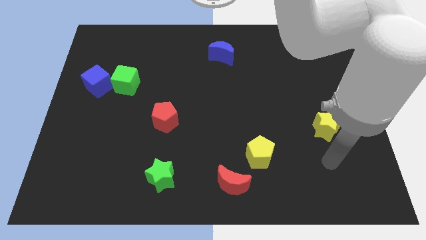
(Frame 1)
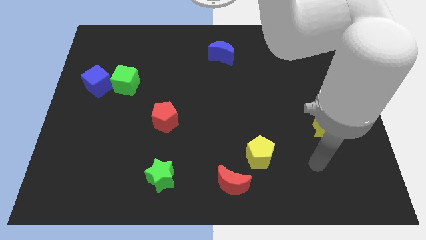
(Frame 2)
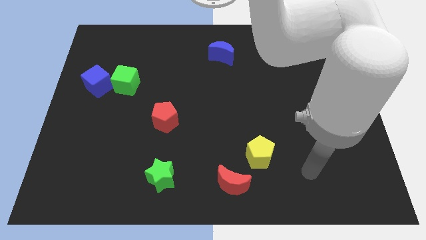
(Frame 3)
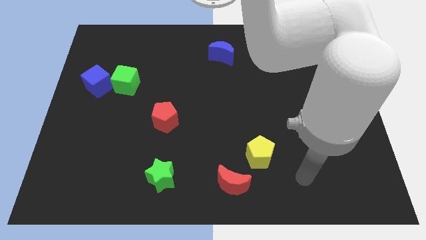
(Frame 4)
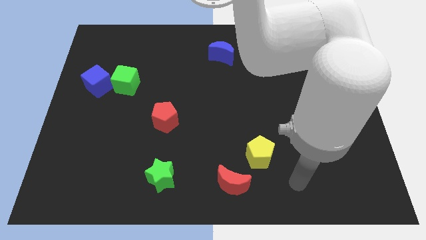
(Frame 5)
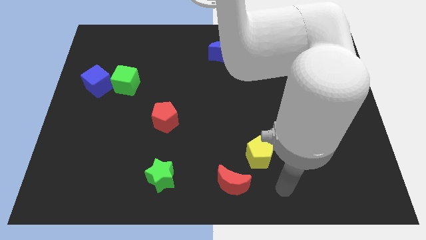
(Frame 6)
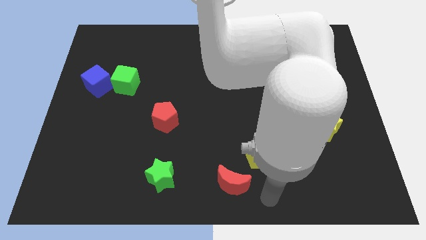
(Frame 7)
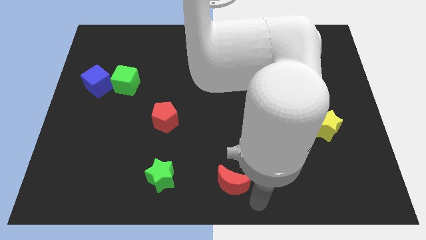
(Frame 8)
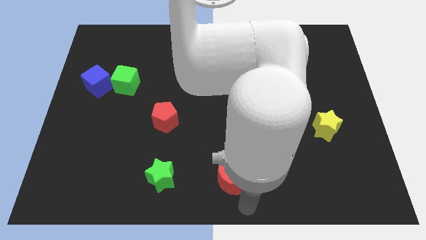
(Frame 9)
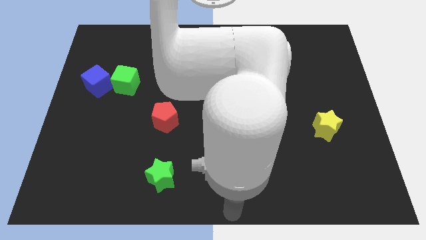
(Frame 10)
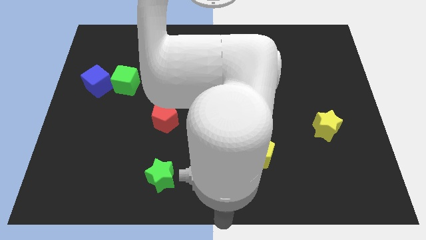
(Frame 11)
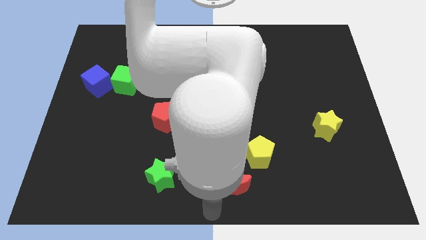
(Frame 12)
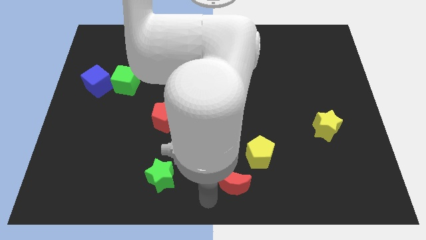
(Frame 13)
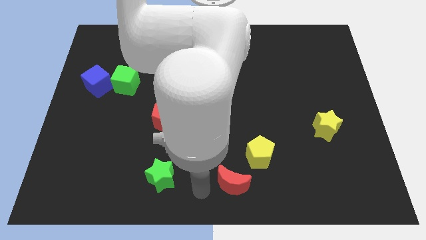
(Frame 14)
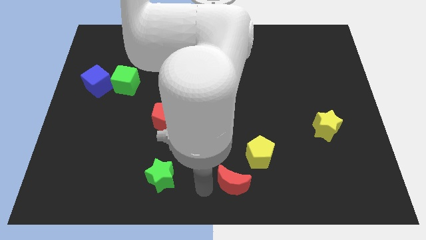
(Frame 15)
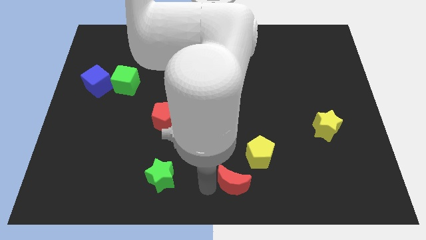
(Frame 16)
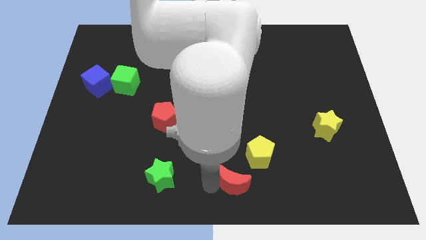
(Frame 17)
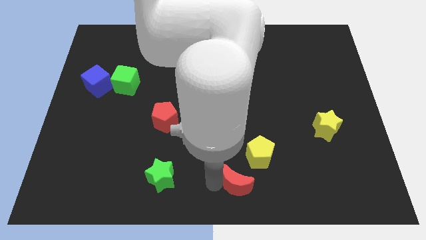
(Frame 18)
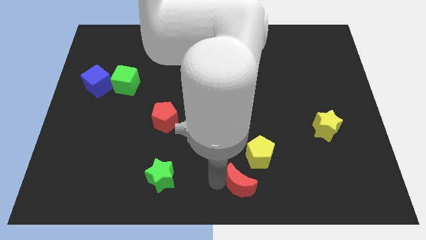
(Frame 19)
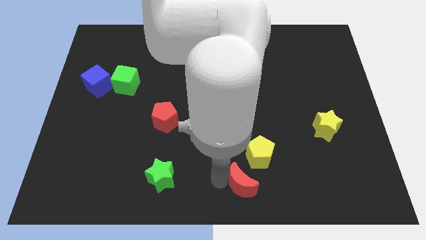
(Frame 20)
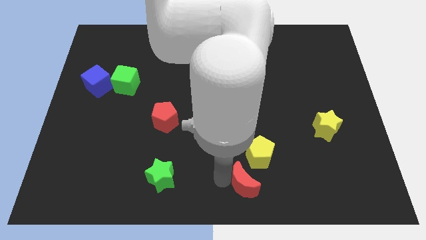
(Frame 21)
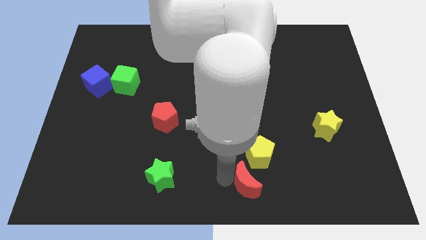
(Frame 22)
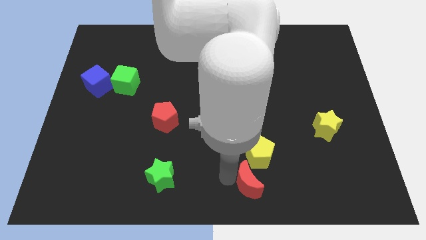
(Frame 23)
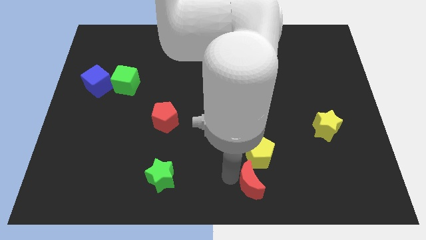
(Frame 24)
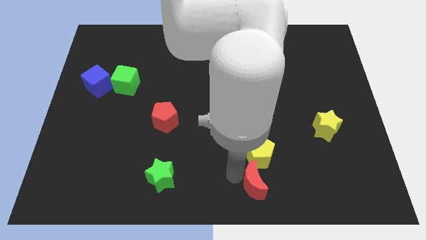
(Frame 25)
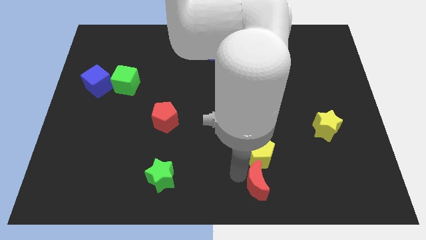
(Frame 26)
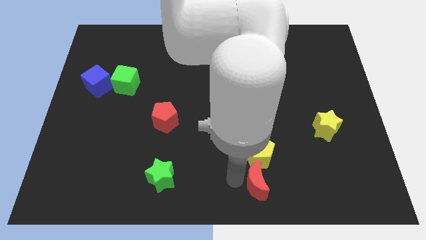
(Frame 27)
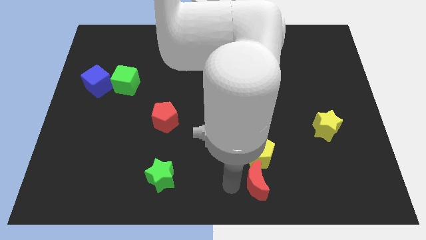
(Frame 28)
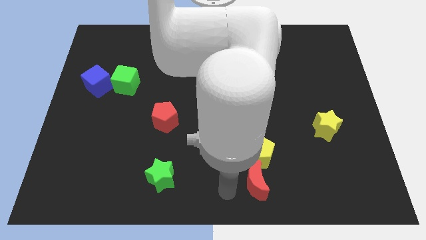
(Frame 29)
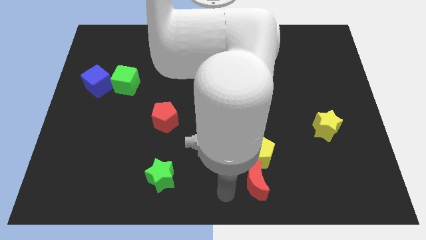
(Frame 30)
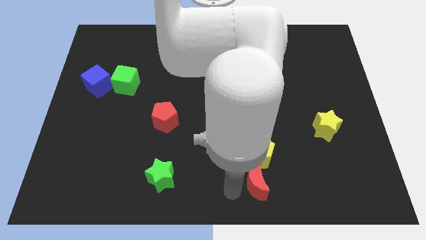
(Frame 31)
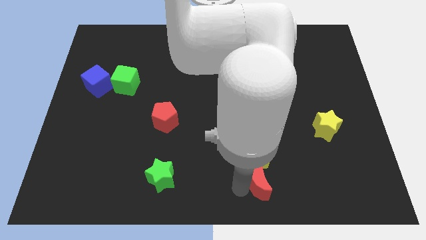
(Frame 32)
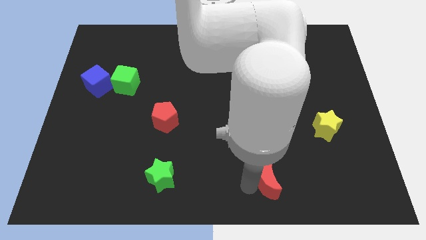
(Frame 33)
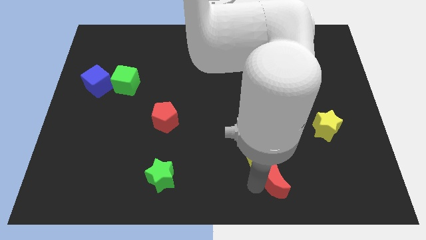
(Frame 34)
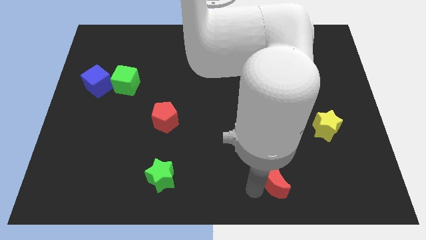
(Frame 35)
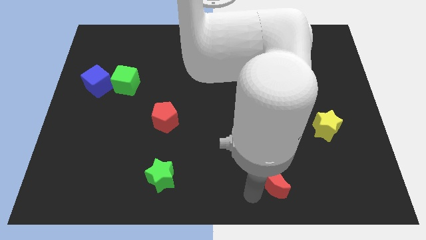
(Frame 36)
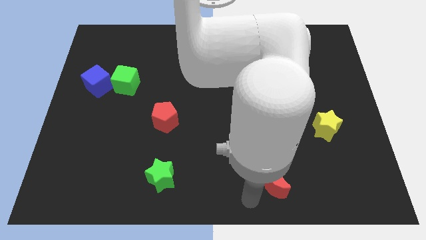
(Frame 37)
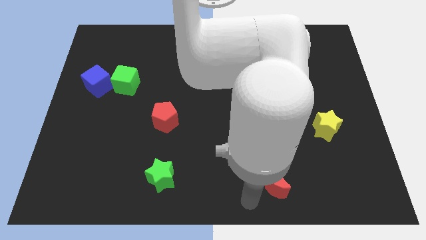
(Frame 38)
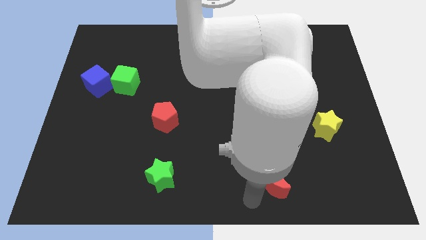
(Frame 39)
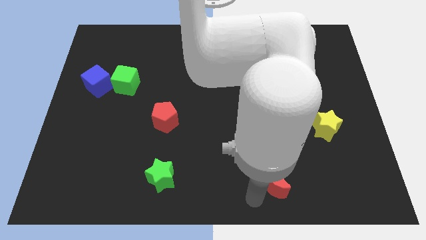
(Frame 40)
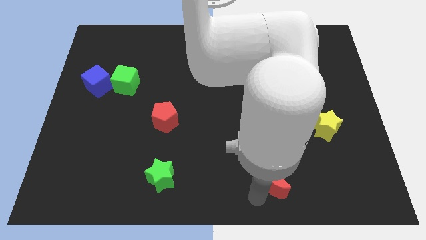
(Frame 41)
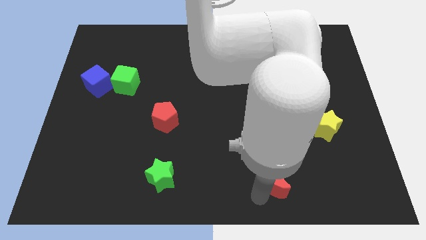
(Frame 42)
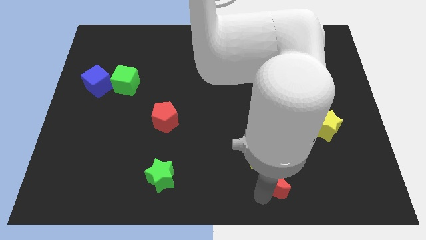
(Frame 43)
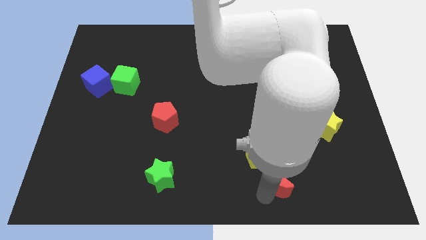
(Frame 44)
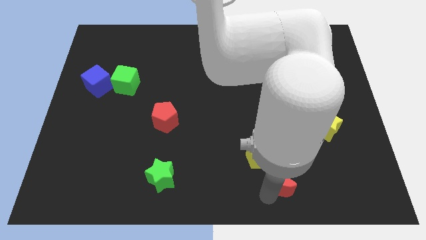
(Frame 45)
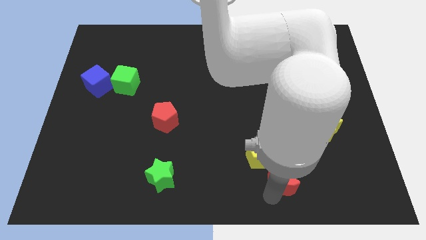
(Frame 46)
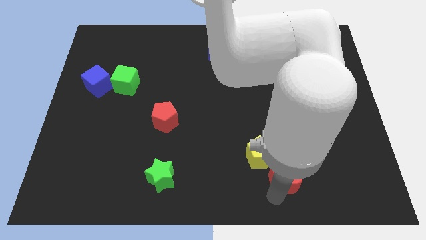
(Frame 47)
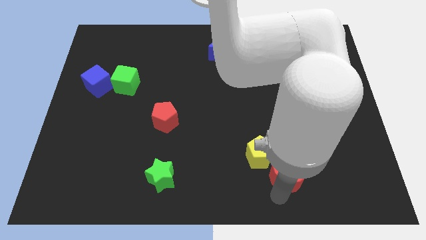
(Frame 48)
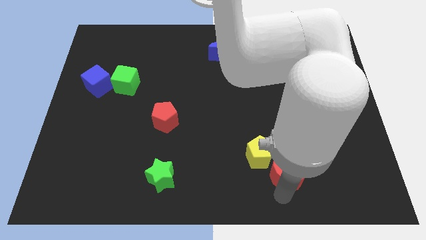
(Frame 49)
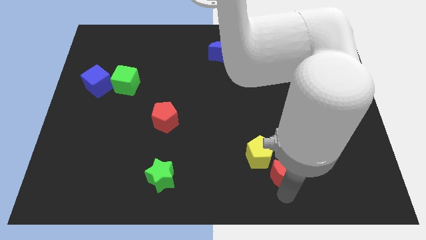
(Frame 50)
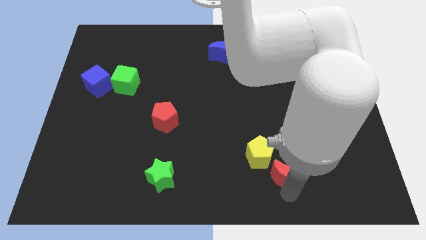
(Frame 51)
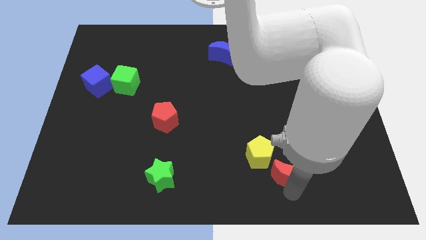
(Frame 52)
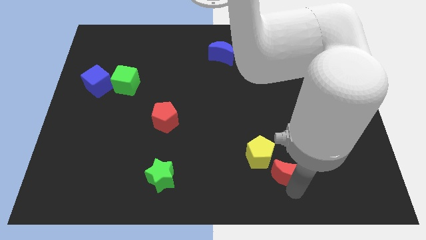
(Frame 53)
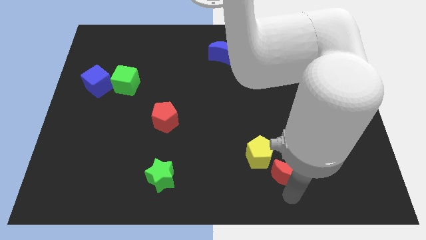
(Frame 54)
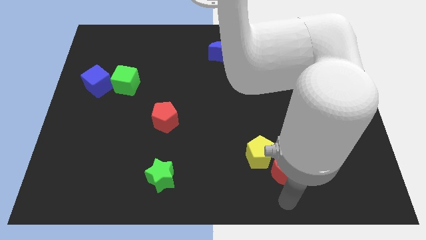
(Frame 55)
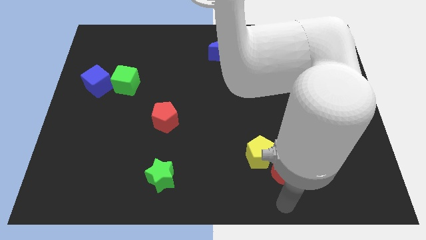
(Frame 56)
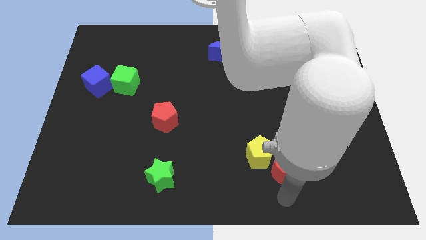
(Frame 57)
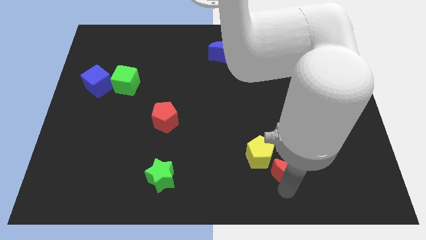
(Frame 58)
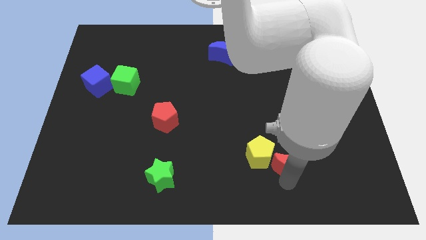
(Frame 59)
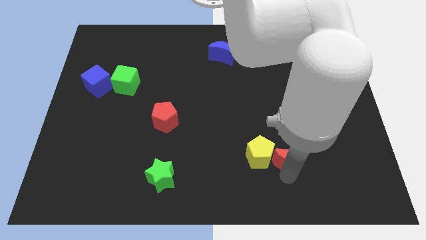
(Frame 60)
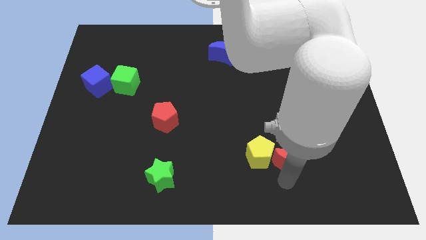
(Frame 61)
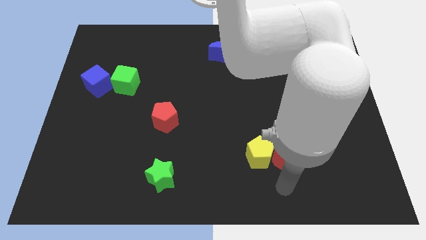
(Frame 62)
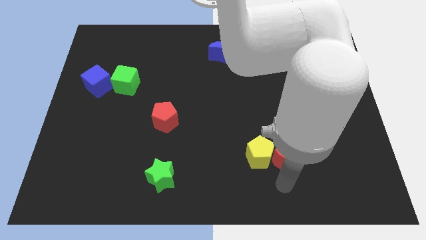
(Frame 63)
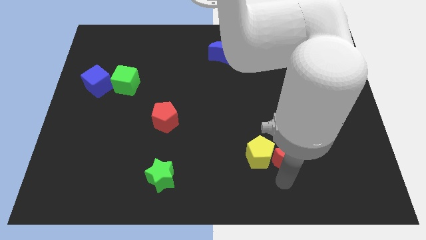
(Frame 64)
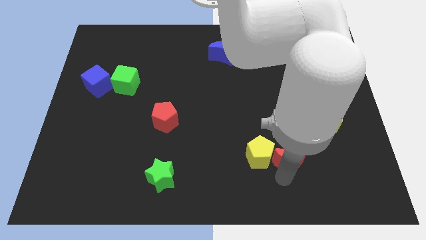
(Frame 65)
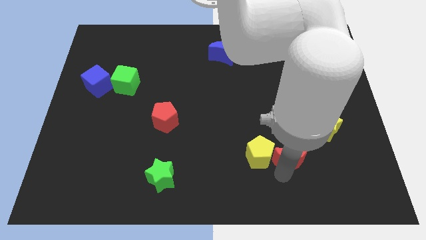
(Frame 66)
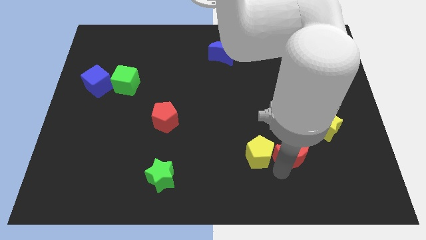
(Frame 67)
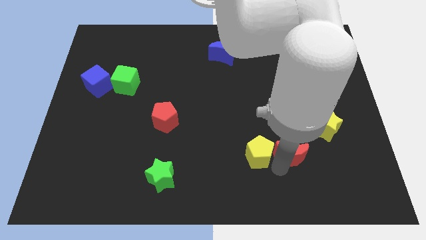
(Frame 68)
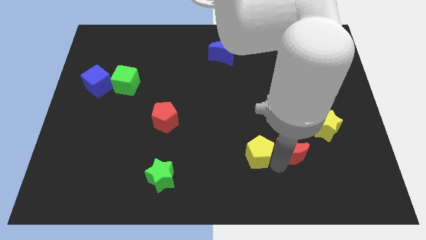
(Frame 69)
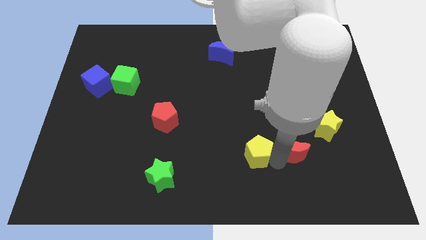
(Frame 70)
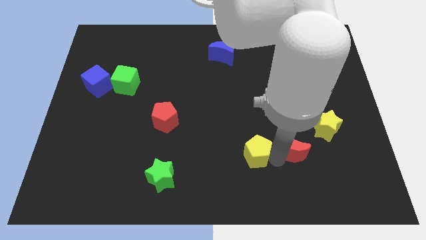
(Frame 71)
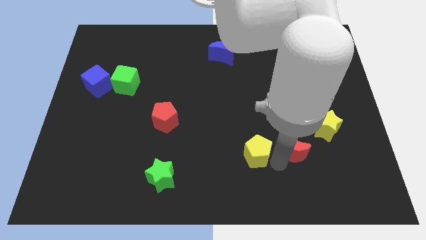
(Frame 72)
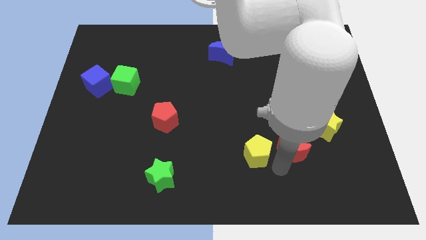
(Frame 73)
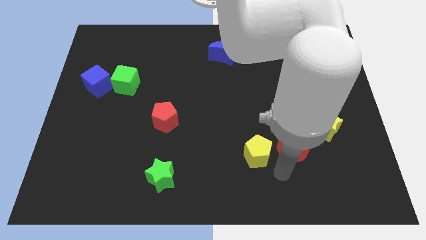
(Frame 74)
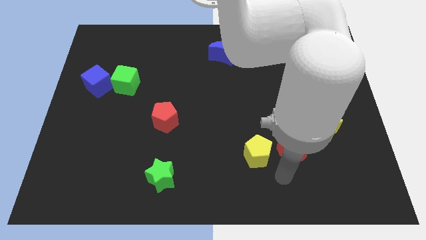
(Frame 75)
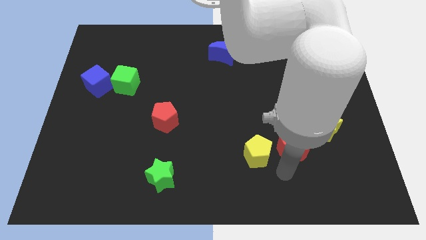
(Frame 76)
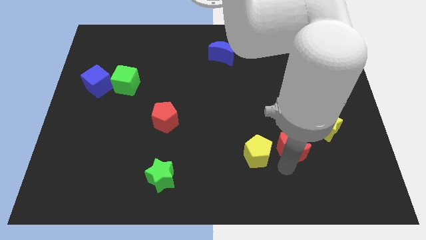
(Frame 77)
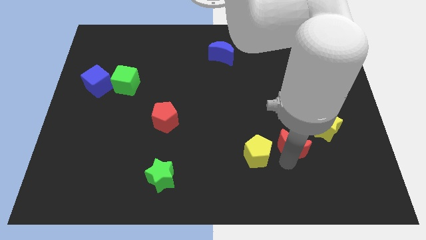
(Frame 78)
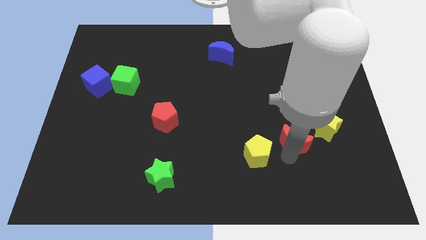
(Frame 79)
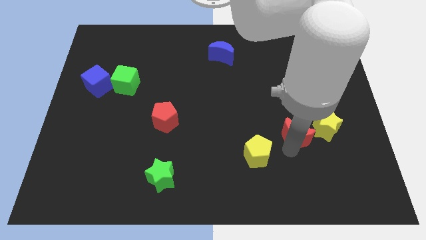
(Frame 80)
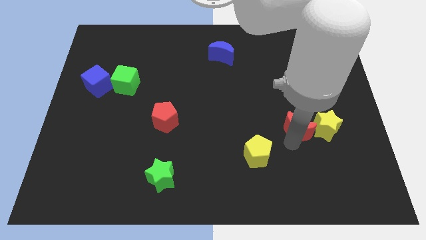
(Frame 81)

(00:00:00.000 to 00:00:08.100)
move the red moon upwards and right

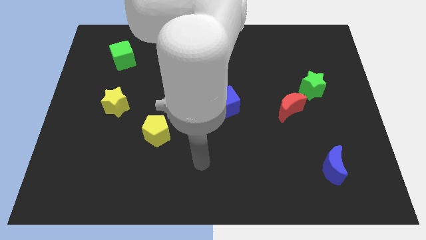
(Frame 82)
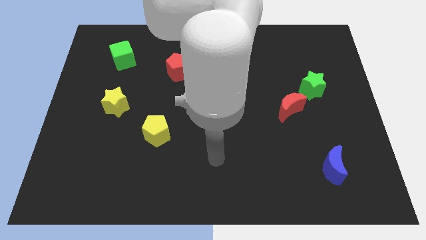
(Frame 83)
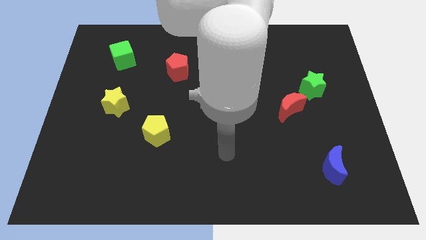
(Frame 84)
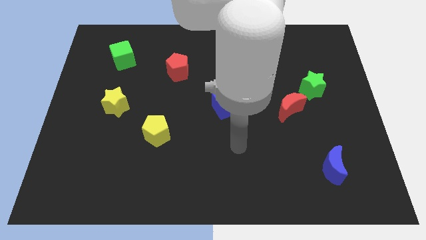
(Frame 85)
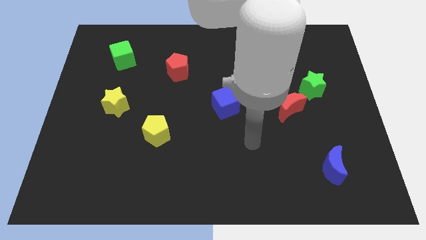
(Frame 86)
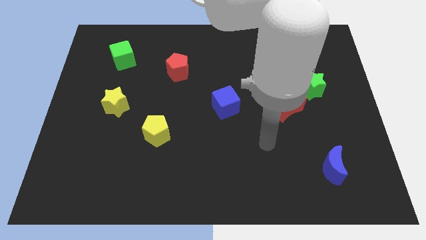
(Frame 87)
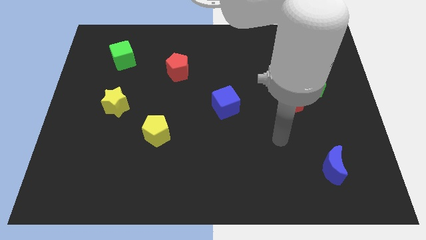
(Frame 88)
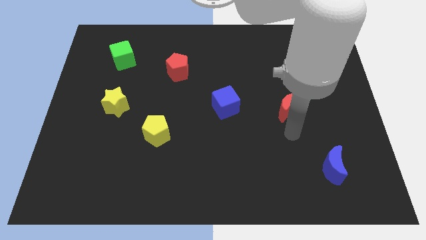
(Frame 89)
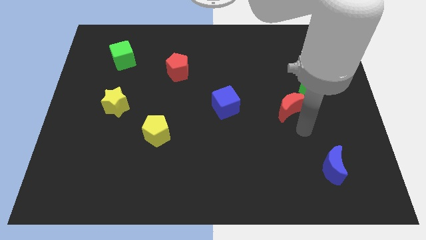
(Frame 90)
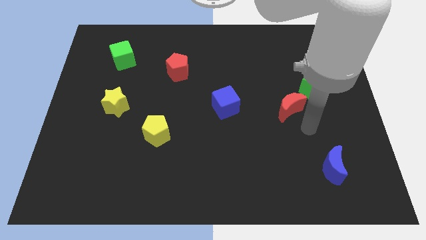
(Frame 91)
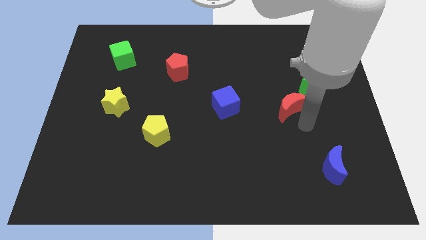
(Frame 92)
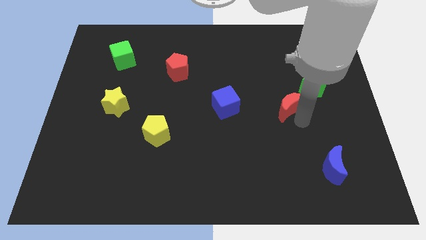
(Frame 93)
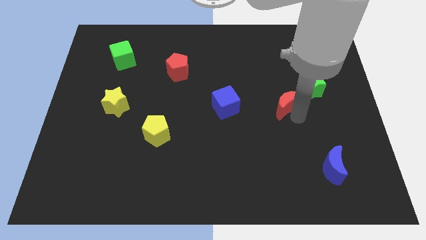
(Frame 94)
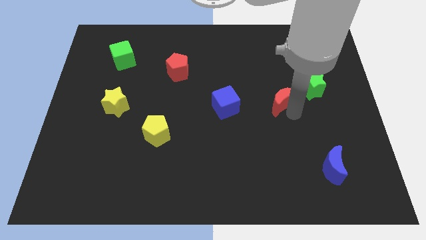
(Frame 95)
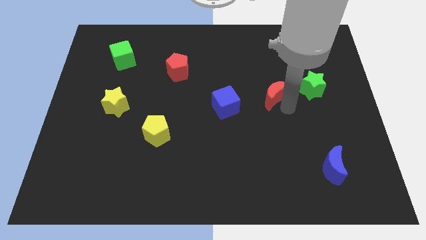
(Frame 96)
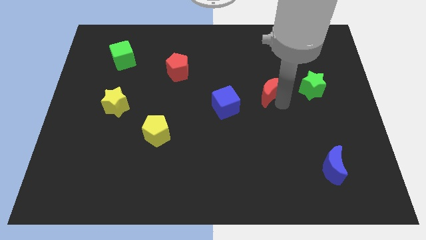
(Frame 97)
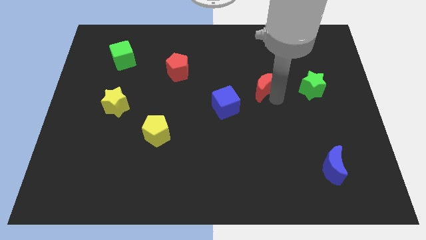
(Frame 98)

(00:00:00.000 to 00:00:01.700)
slightly move the red moon up and then to the left
